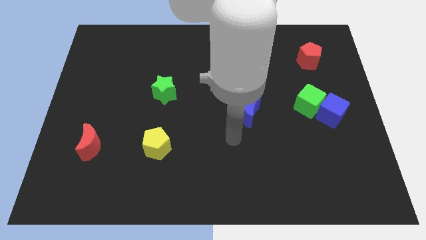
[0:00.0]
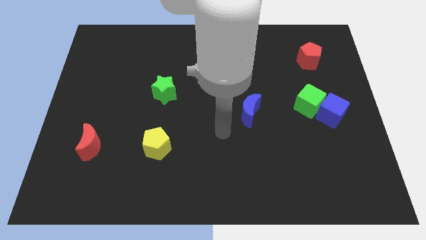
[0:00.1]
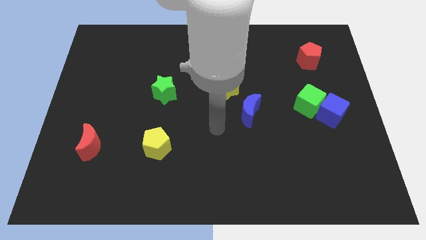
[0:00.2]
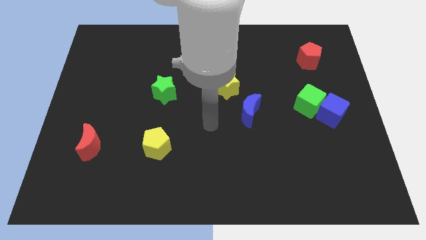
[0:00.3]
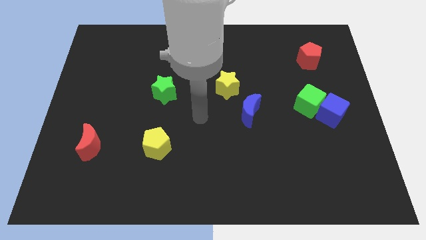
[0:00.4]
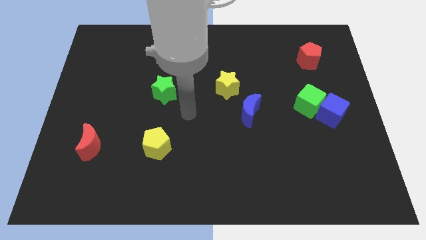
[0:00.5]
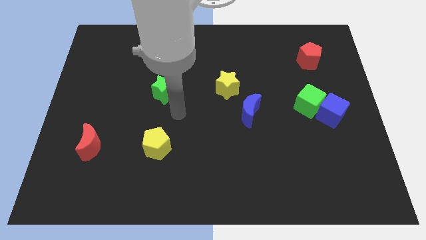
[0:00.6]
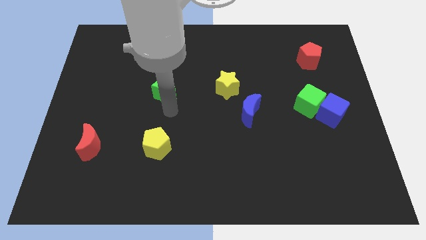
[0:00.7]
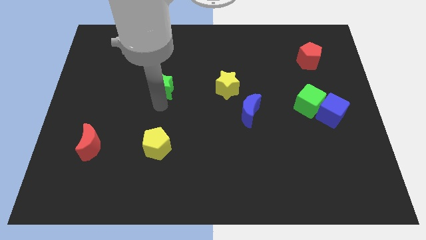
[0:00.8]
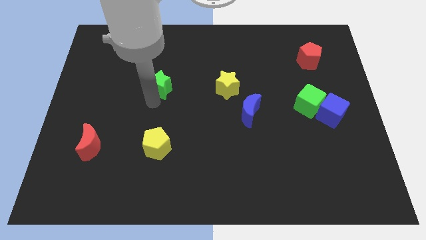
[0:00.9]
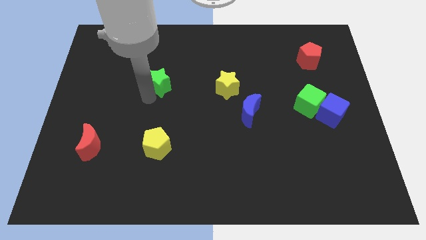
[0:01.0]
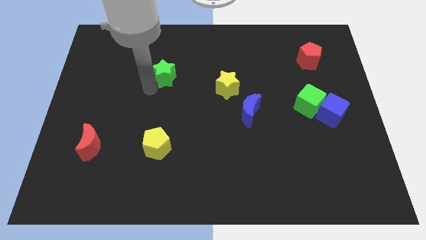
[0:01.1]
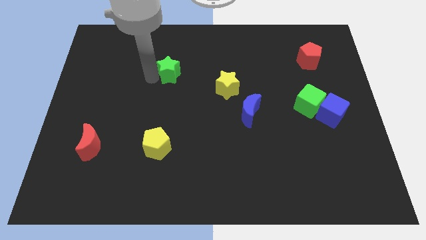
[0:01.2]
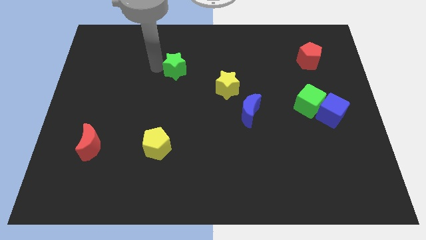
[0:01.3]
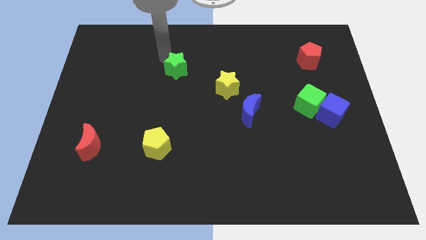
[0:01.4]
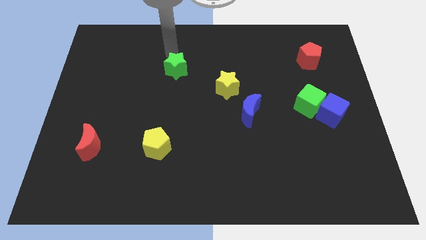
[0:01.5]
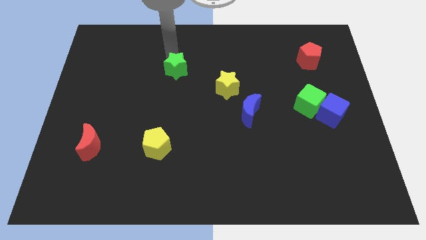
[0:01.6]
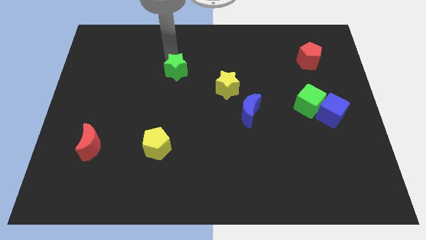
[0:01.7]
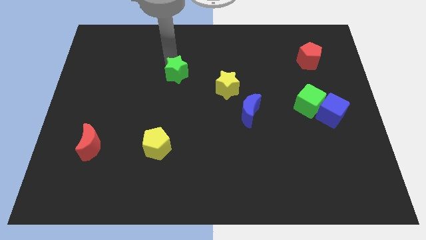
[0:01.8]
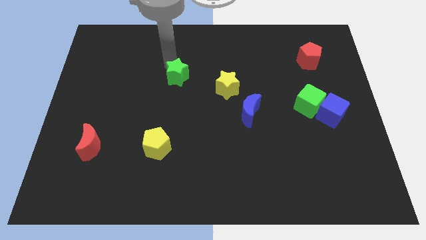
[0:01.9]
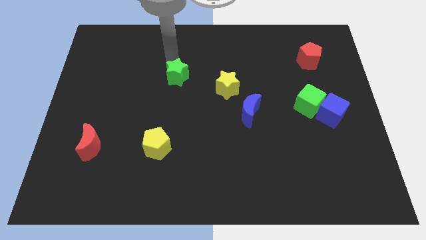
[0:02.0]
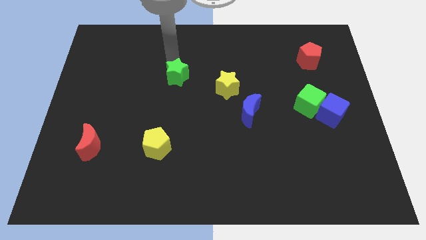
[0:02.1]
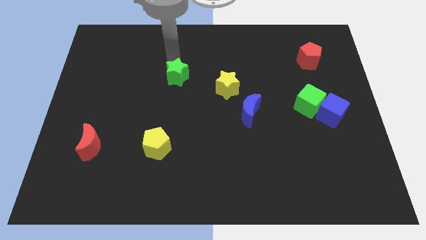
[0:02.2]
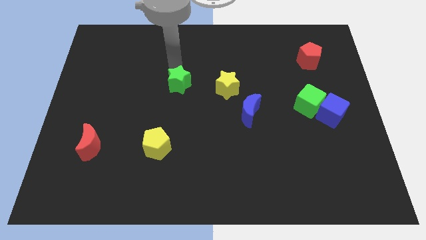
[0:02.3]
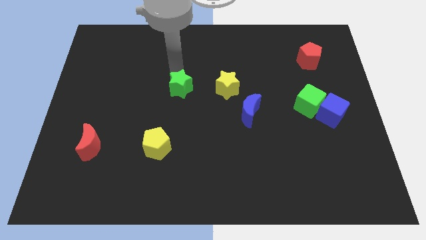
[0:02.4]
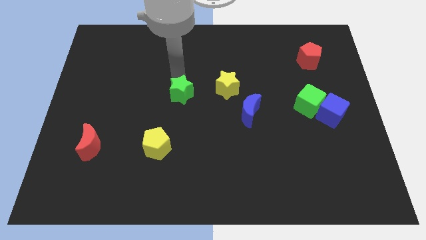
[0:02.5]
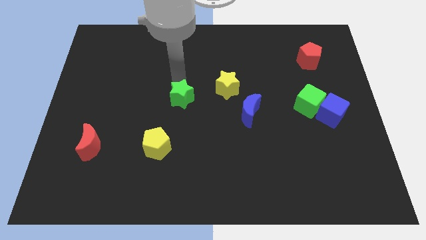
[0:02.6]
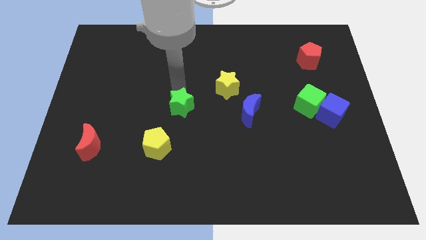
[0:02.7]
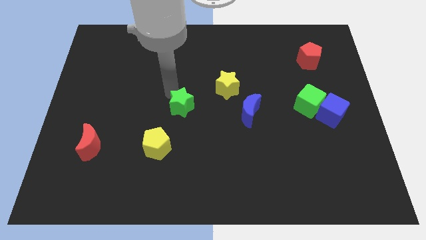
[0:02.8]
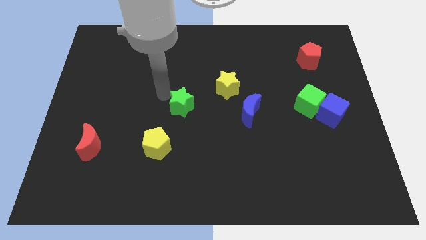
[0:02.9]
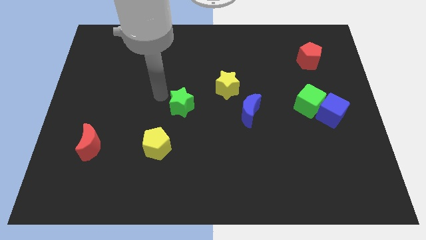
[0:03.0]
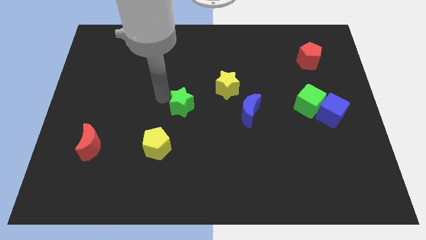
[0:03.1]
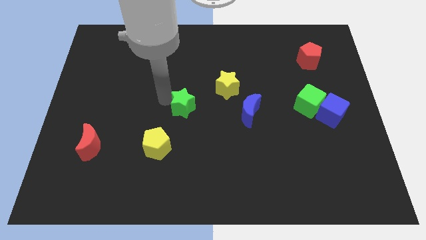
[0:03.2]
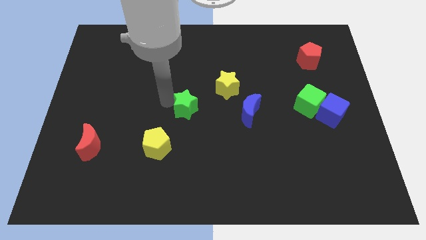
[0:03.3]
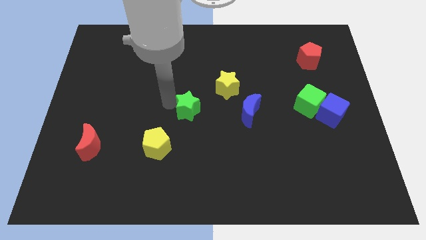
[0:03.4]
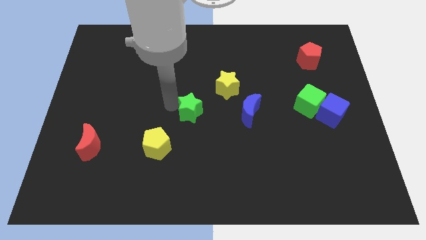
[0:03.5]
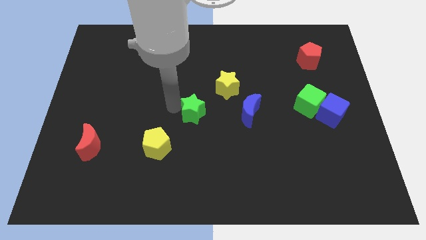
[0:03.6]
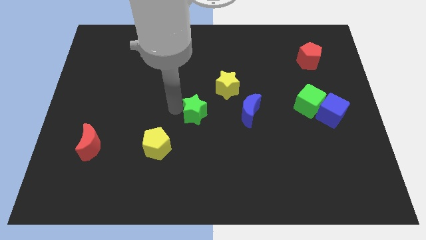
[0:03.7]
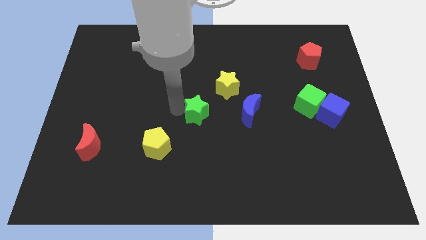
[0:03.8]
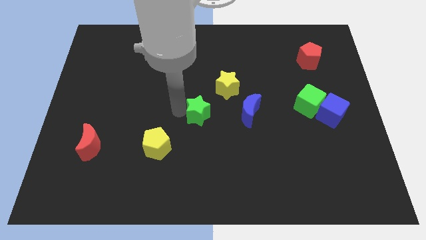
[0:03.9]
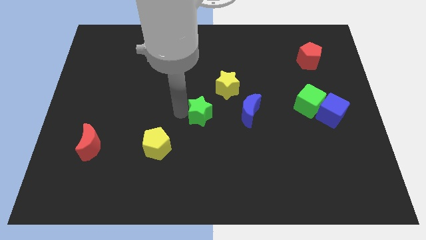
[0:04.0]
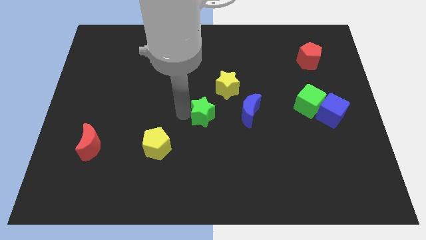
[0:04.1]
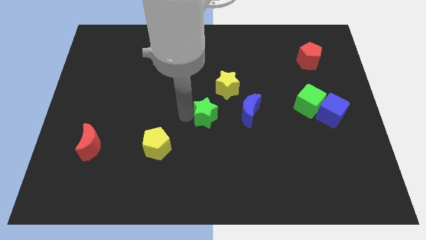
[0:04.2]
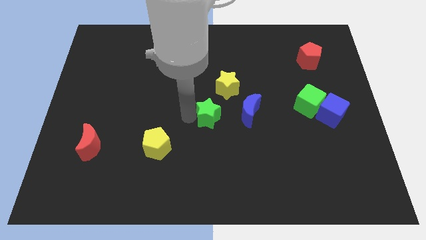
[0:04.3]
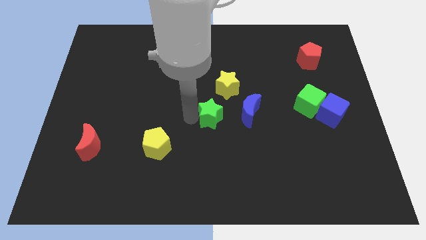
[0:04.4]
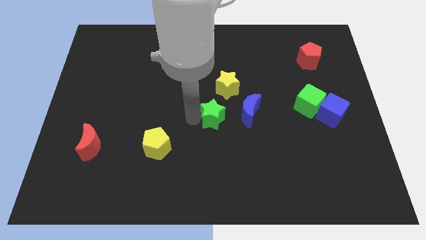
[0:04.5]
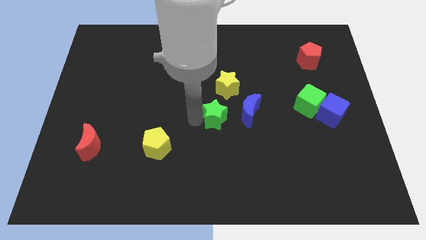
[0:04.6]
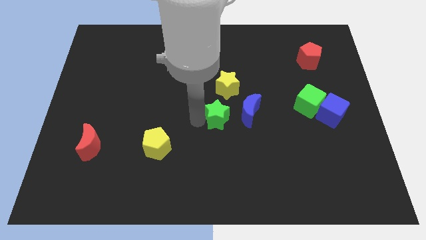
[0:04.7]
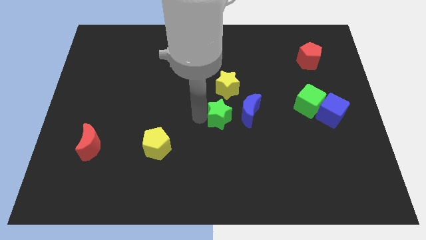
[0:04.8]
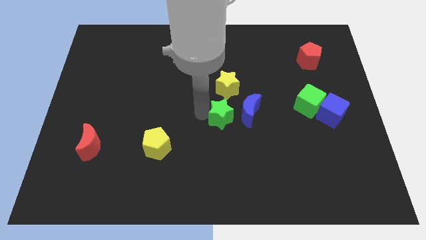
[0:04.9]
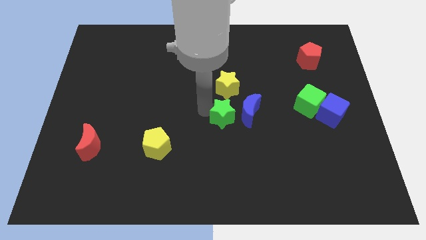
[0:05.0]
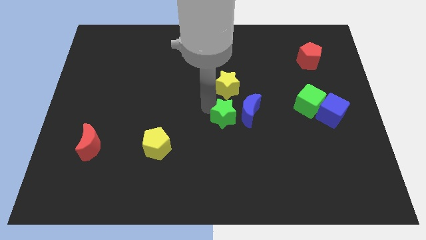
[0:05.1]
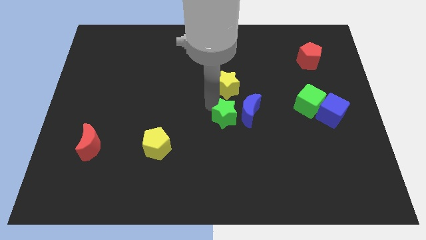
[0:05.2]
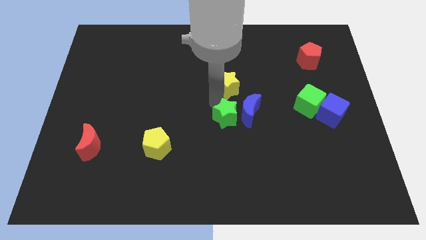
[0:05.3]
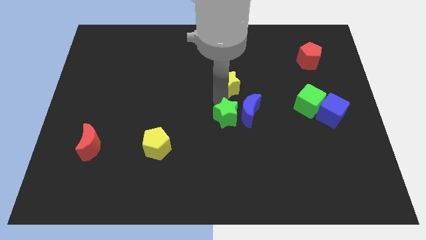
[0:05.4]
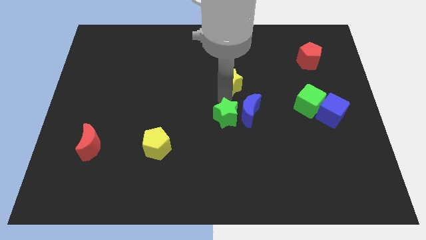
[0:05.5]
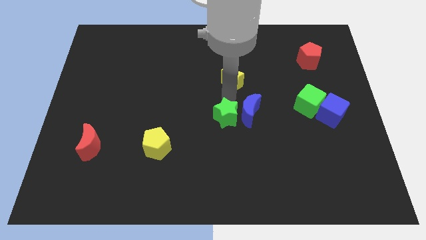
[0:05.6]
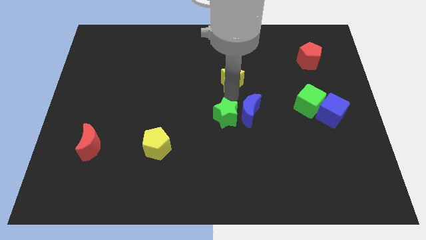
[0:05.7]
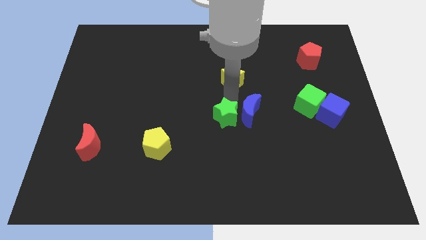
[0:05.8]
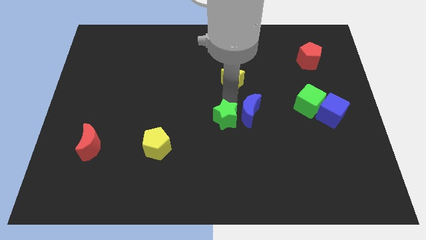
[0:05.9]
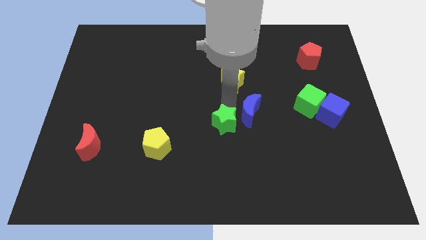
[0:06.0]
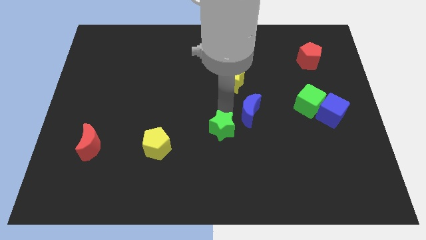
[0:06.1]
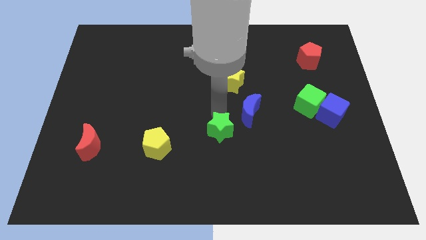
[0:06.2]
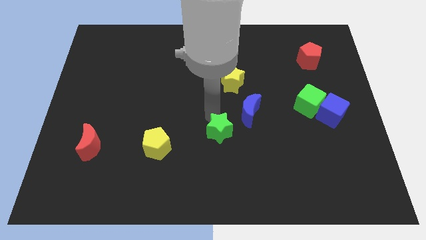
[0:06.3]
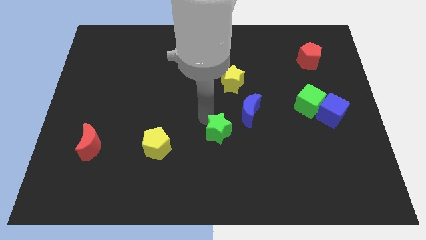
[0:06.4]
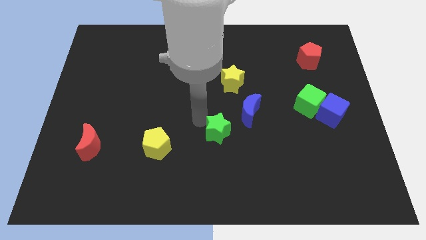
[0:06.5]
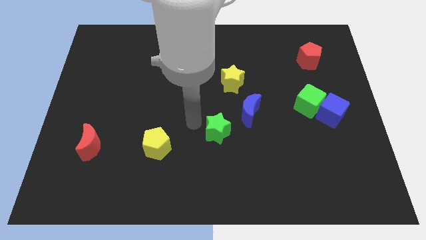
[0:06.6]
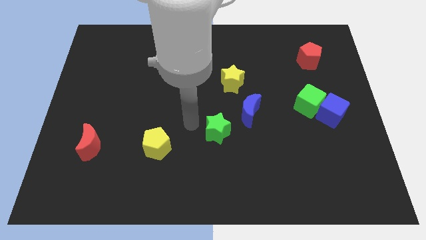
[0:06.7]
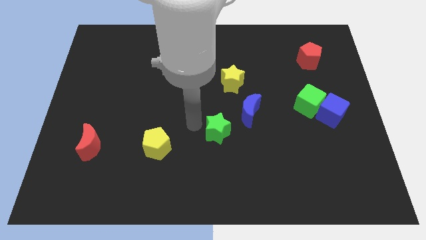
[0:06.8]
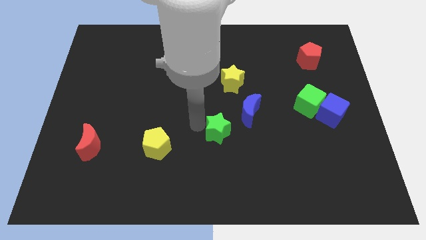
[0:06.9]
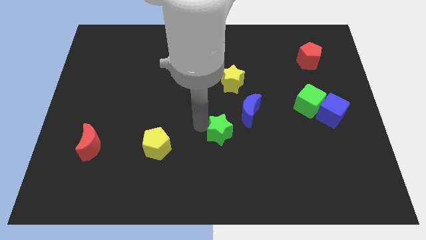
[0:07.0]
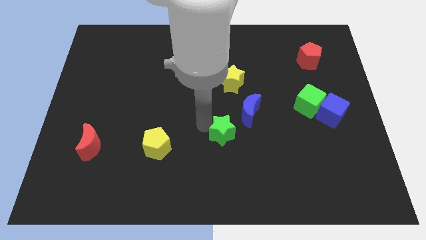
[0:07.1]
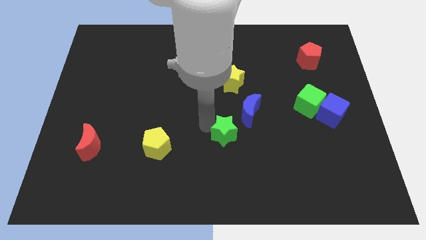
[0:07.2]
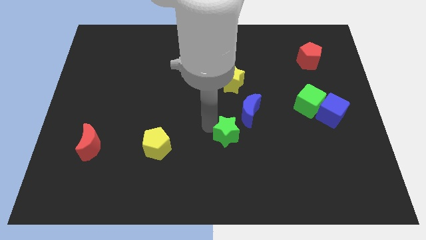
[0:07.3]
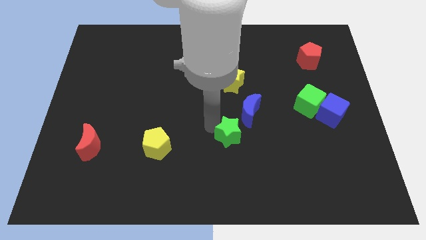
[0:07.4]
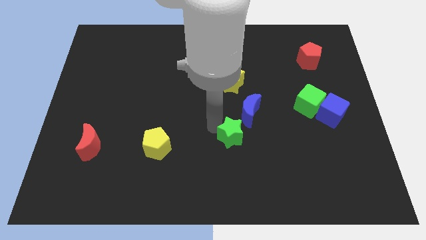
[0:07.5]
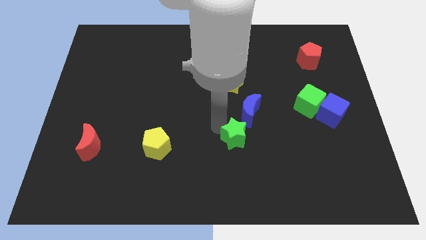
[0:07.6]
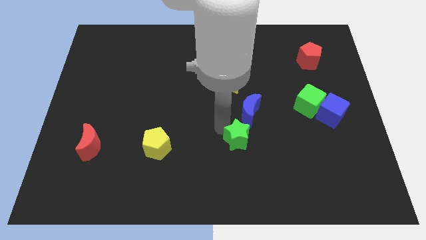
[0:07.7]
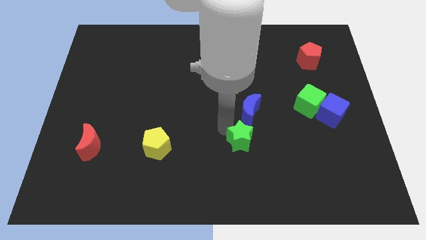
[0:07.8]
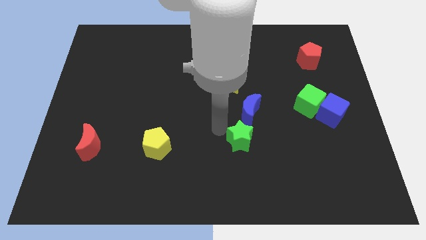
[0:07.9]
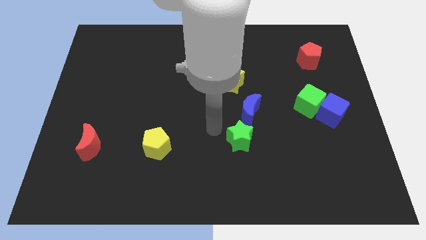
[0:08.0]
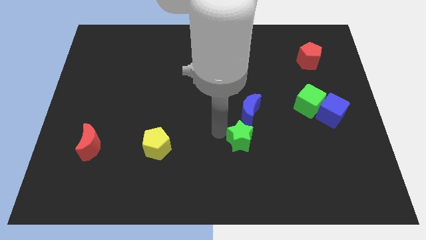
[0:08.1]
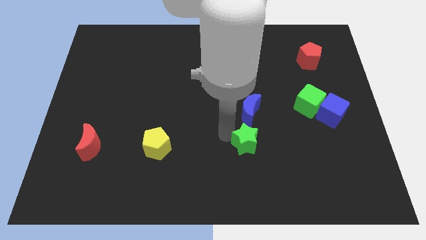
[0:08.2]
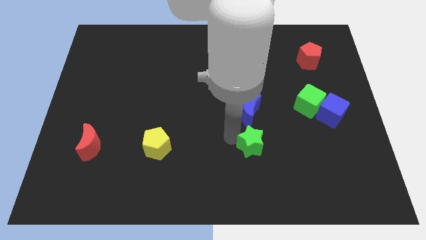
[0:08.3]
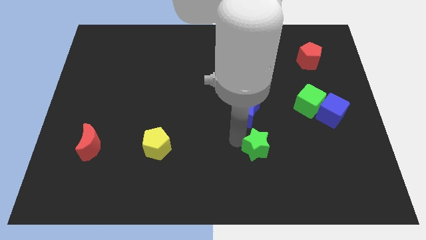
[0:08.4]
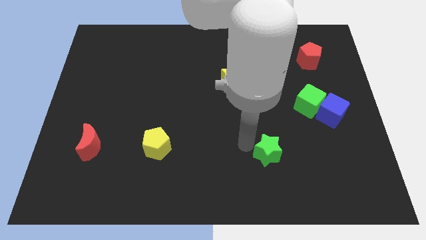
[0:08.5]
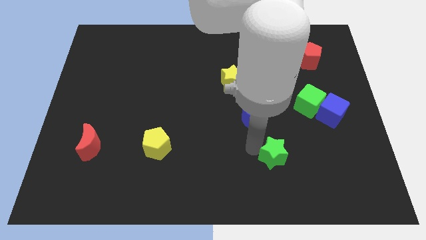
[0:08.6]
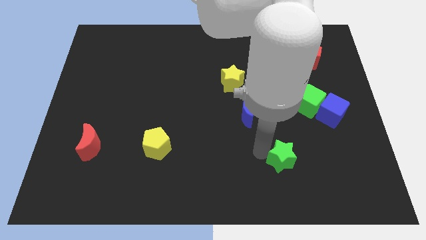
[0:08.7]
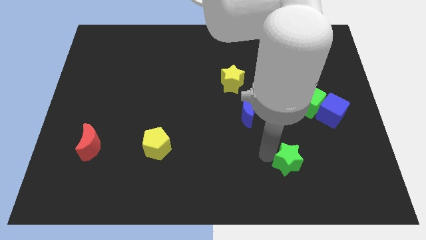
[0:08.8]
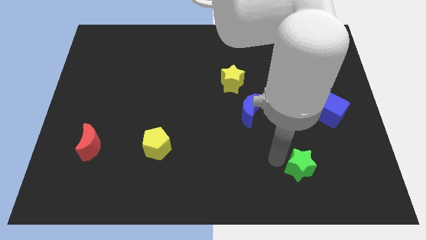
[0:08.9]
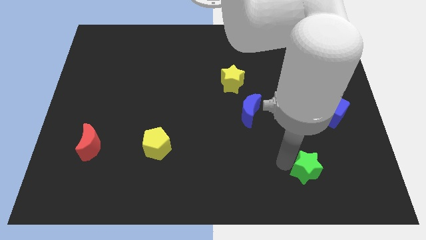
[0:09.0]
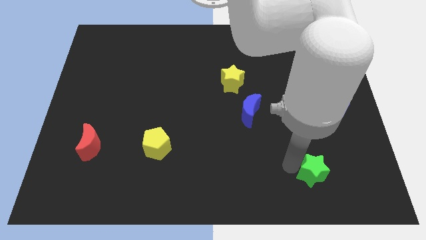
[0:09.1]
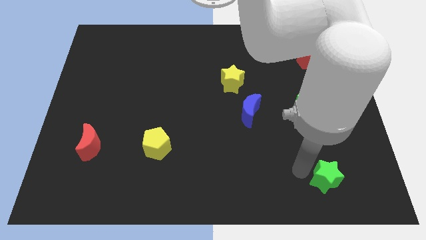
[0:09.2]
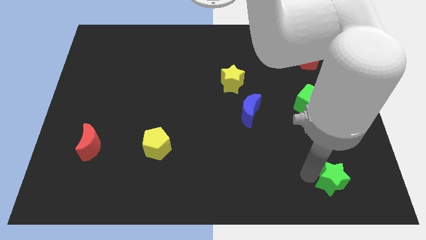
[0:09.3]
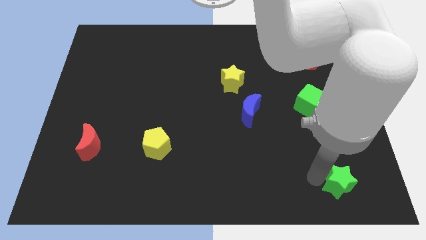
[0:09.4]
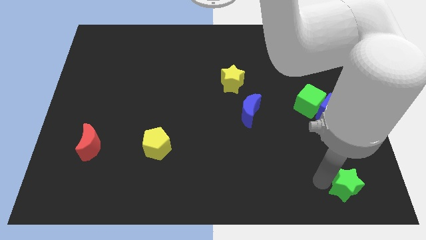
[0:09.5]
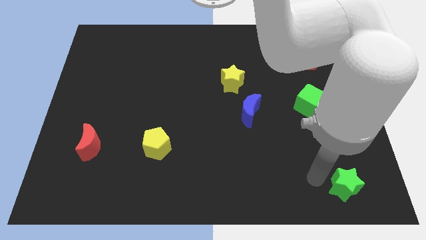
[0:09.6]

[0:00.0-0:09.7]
slide the green star to the lower right corner
